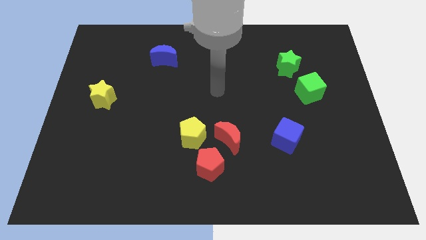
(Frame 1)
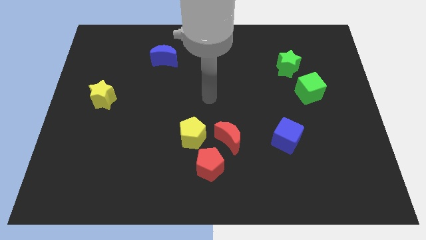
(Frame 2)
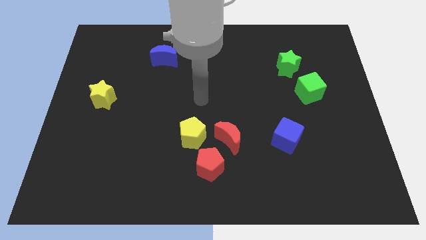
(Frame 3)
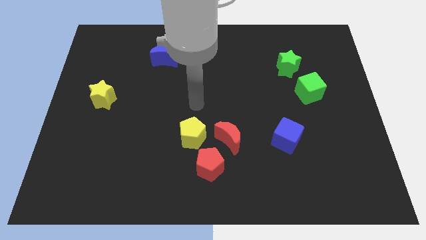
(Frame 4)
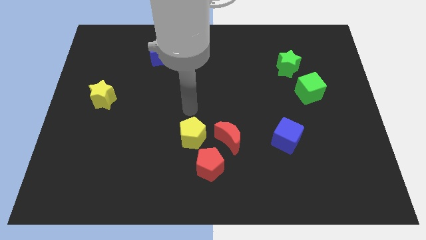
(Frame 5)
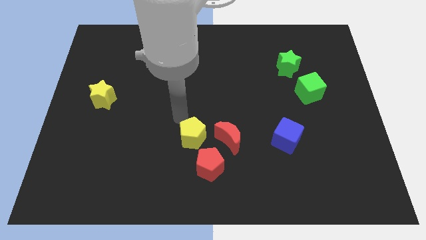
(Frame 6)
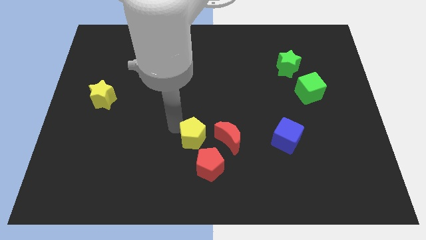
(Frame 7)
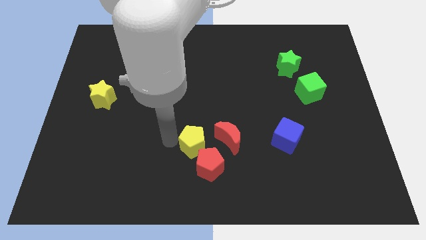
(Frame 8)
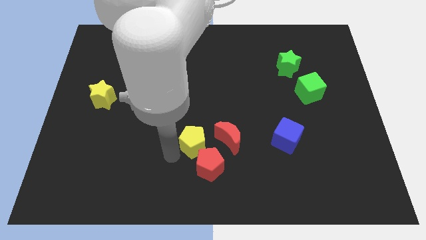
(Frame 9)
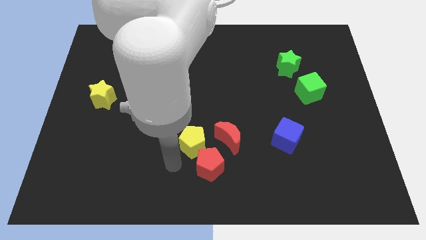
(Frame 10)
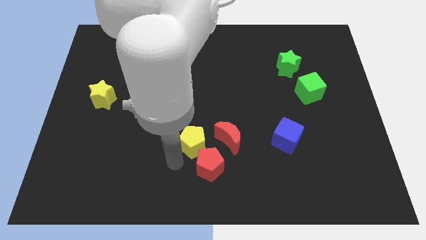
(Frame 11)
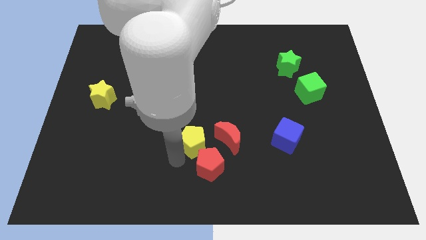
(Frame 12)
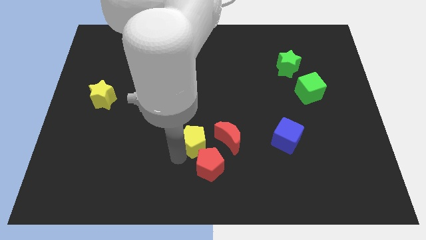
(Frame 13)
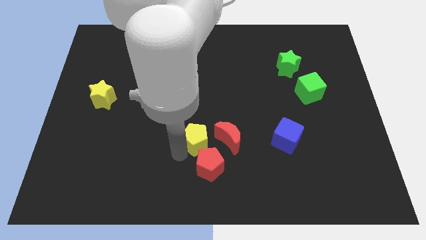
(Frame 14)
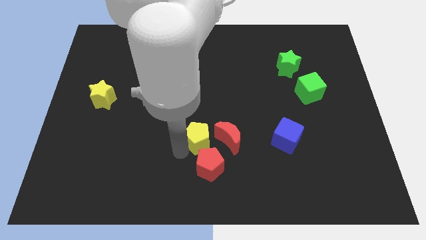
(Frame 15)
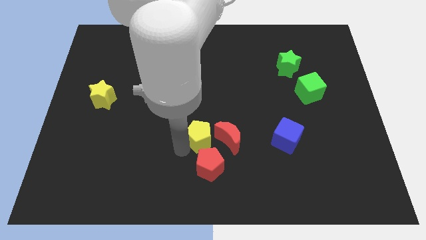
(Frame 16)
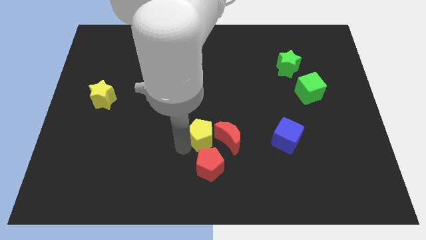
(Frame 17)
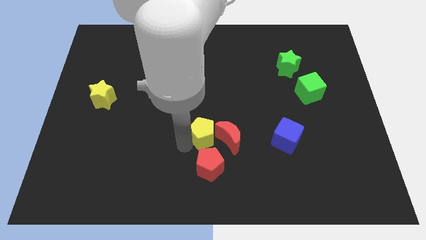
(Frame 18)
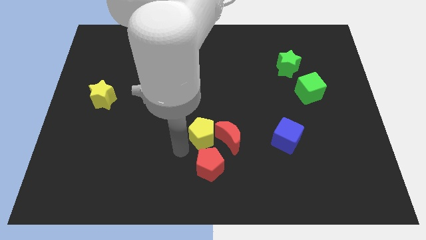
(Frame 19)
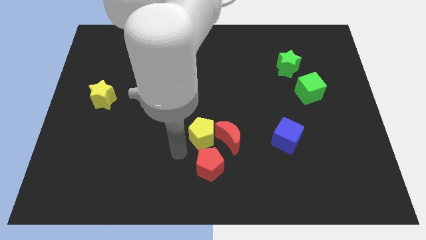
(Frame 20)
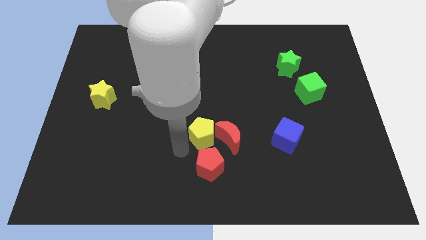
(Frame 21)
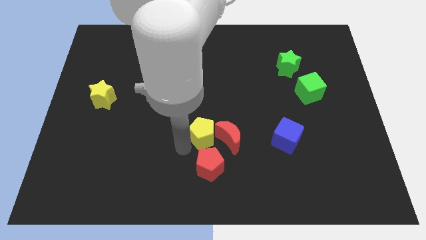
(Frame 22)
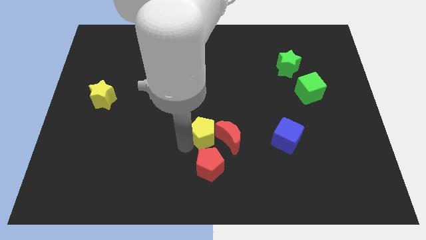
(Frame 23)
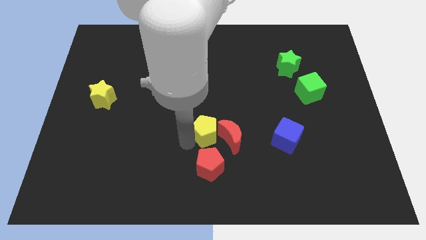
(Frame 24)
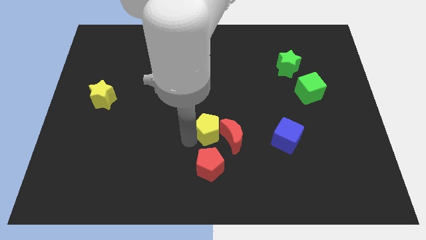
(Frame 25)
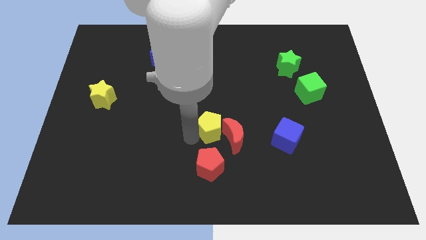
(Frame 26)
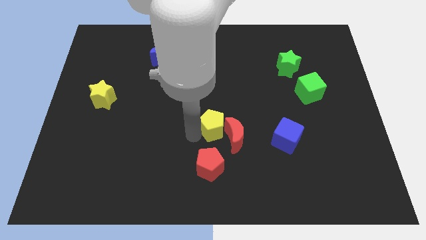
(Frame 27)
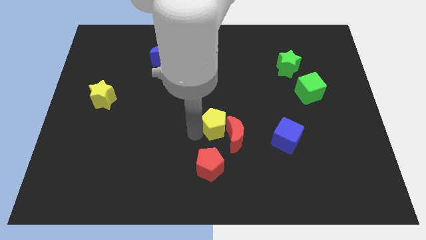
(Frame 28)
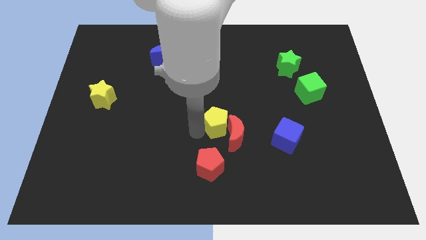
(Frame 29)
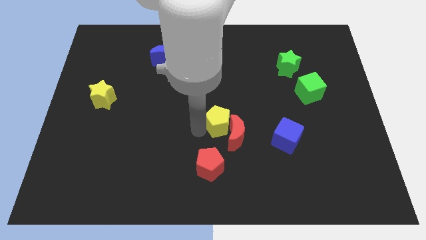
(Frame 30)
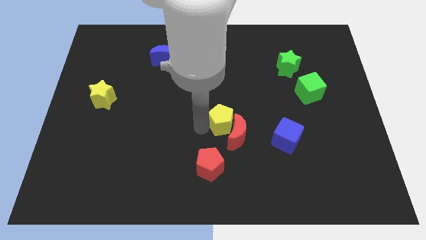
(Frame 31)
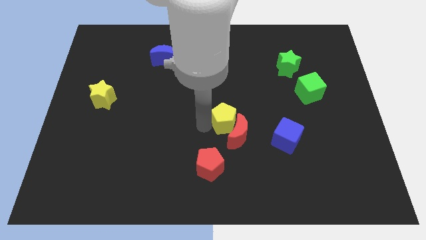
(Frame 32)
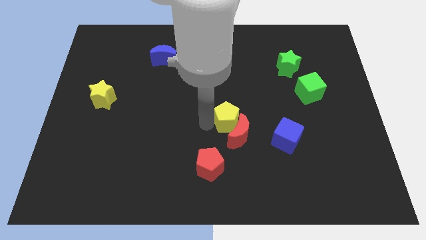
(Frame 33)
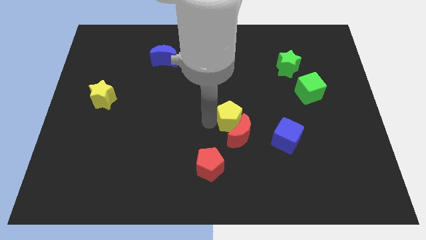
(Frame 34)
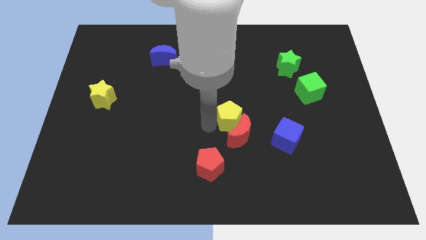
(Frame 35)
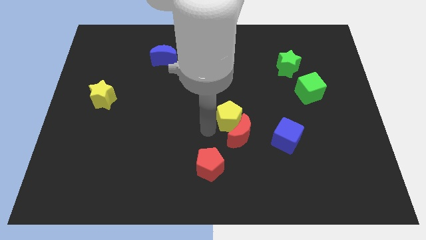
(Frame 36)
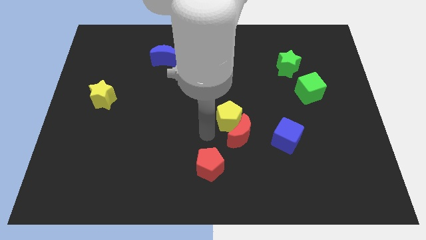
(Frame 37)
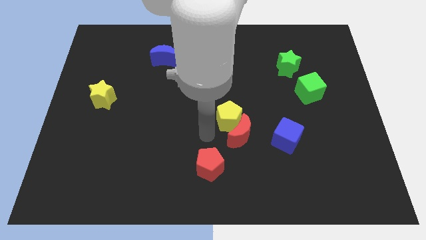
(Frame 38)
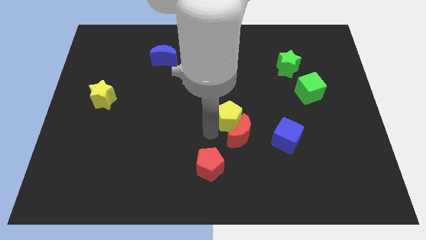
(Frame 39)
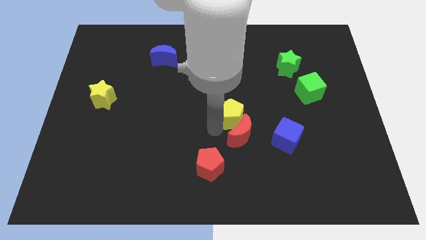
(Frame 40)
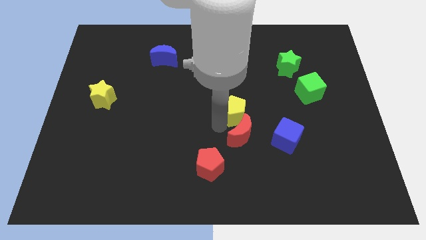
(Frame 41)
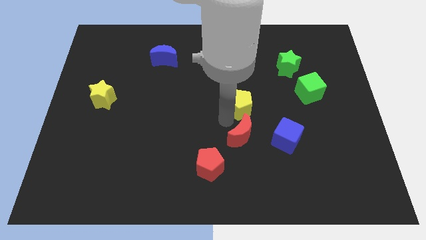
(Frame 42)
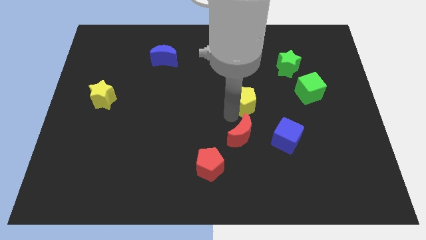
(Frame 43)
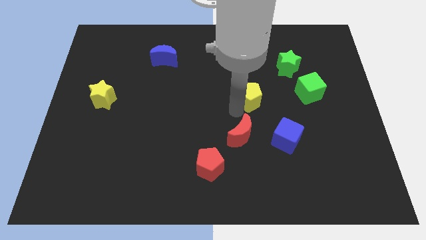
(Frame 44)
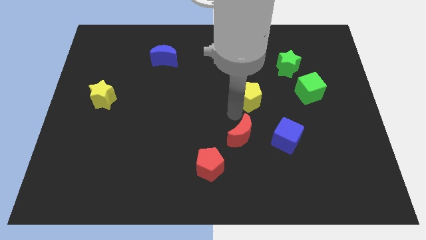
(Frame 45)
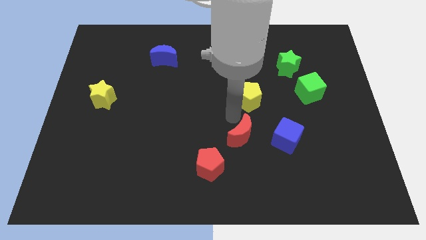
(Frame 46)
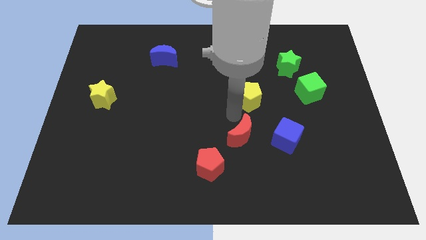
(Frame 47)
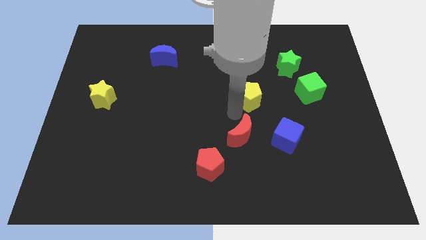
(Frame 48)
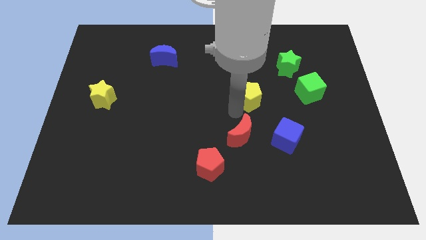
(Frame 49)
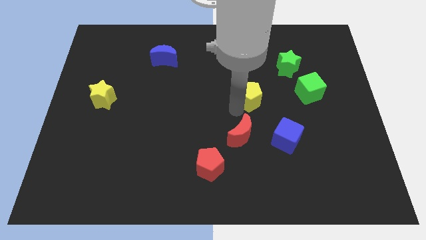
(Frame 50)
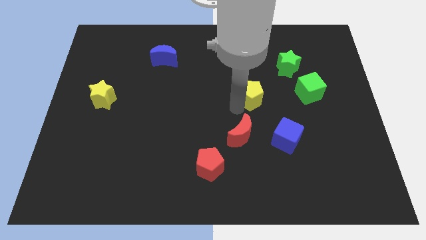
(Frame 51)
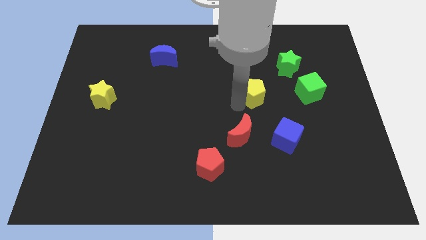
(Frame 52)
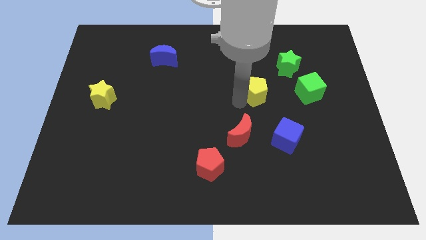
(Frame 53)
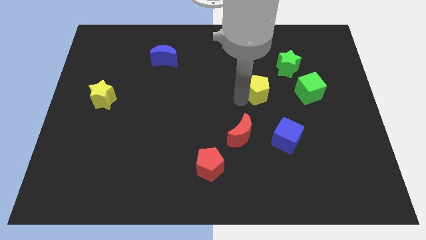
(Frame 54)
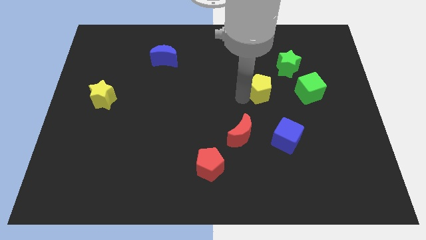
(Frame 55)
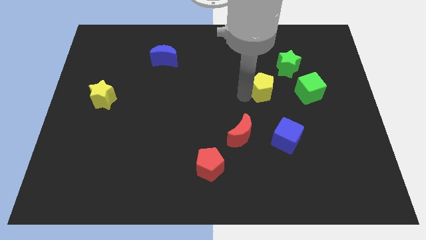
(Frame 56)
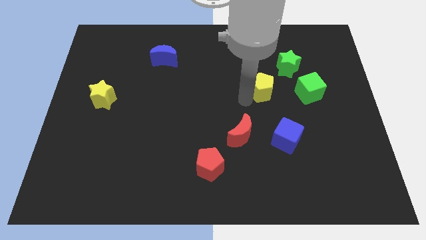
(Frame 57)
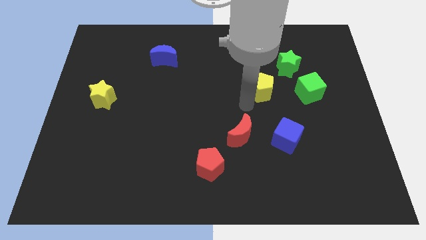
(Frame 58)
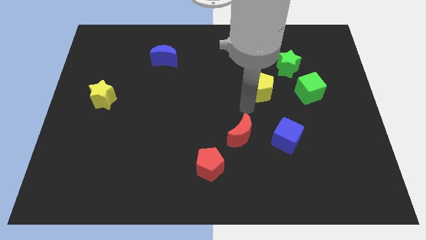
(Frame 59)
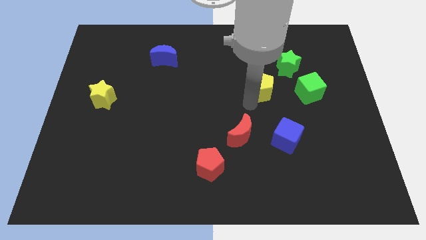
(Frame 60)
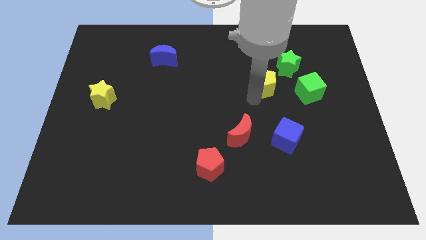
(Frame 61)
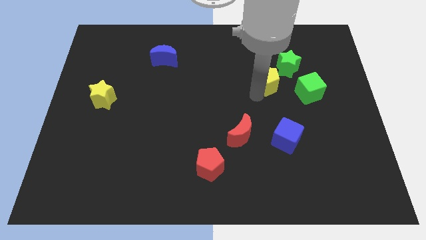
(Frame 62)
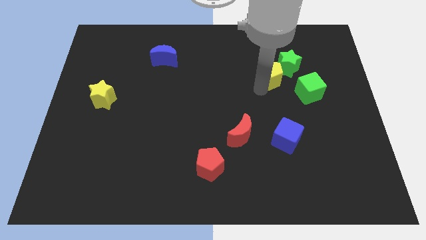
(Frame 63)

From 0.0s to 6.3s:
slide the yellow pentagon to the green star

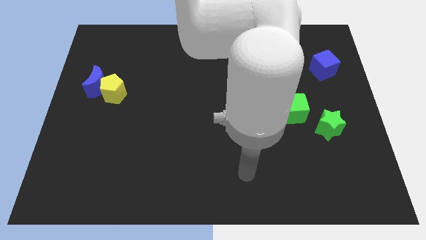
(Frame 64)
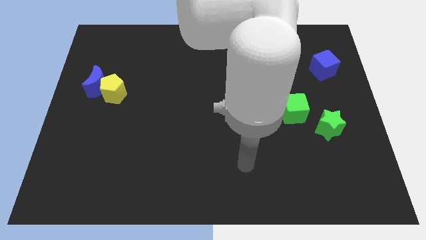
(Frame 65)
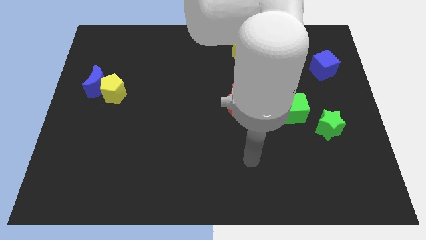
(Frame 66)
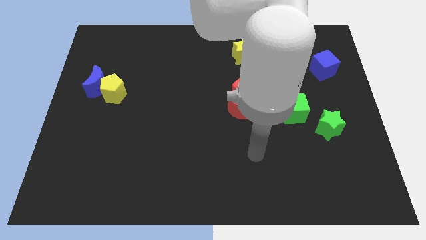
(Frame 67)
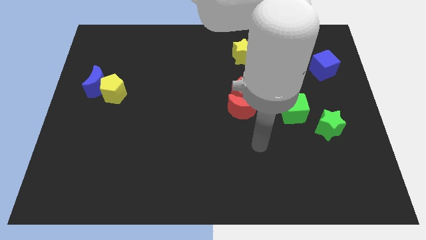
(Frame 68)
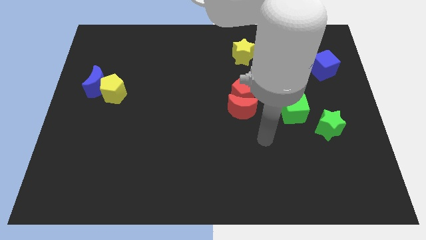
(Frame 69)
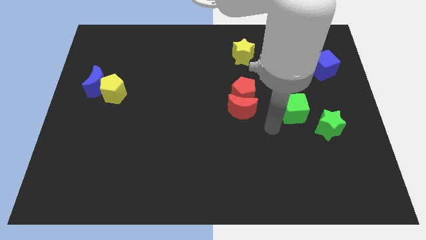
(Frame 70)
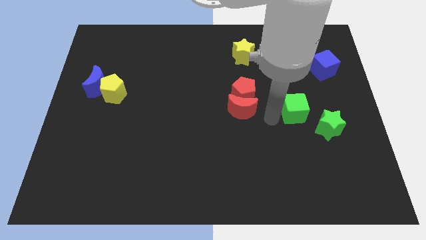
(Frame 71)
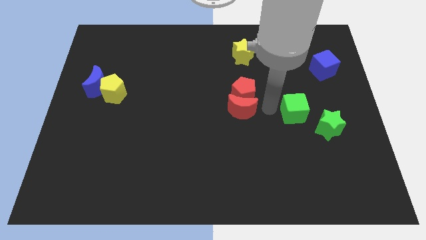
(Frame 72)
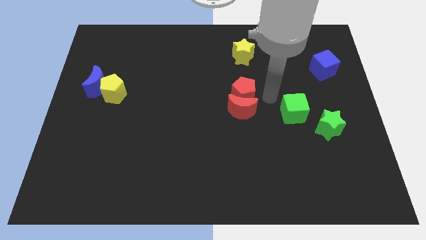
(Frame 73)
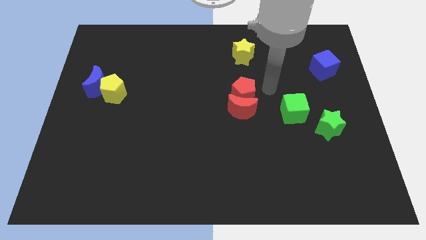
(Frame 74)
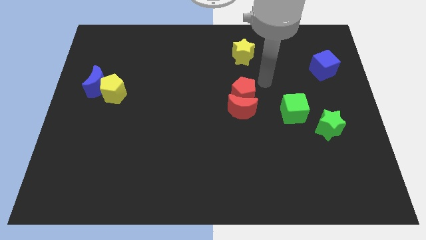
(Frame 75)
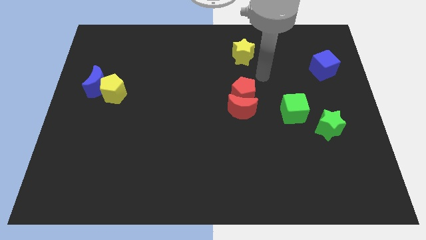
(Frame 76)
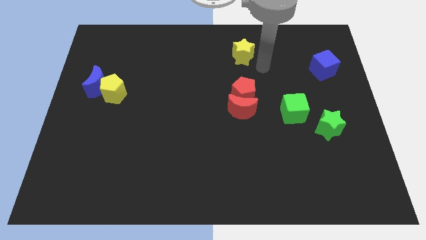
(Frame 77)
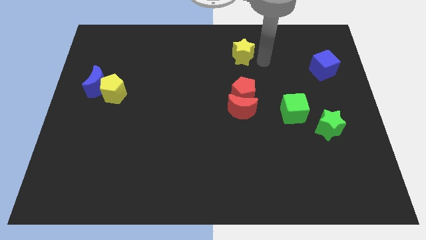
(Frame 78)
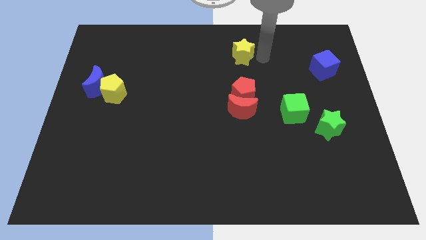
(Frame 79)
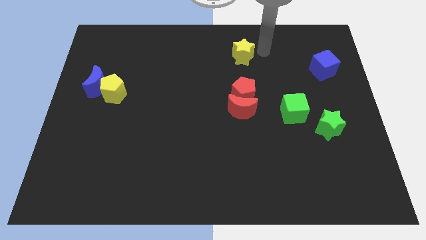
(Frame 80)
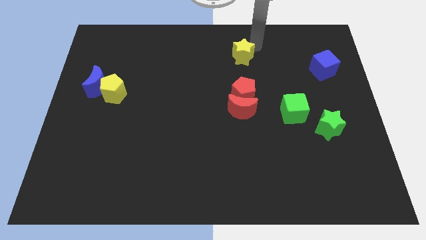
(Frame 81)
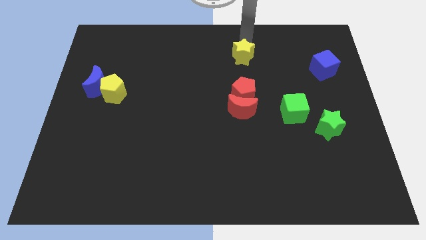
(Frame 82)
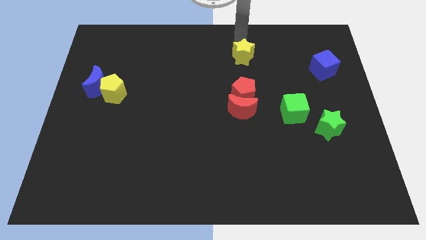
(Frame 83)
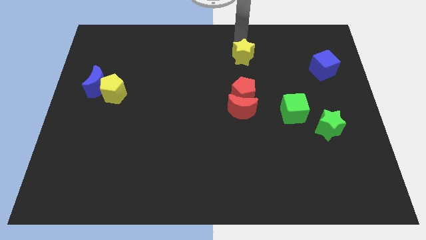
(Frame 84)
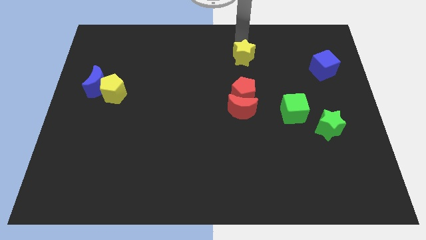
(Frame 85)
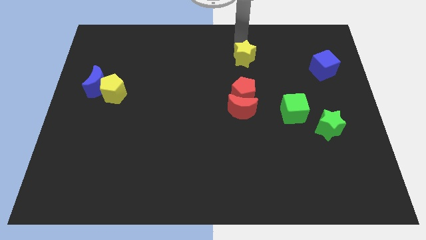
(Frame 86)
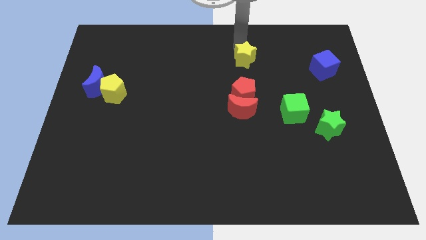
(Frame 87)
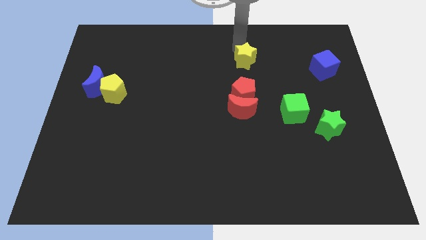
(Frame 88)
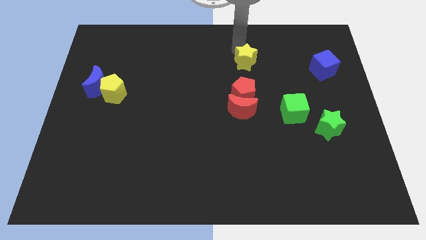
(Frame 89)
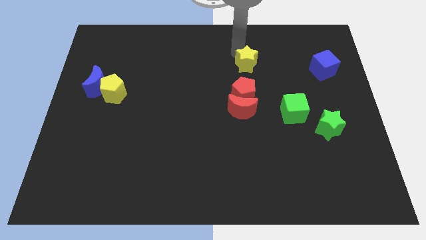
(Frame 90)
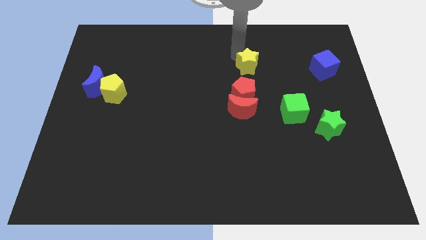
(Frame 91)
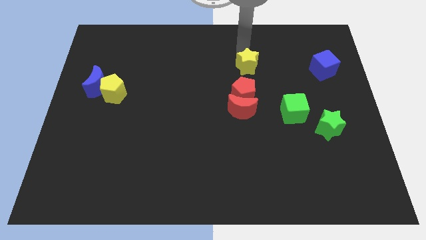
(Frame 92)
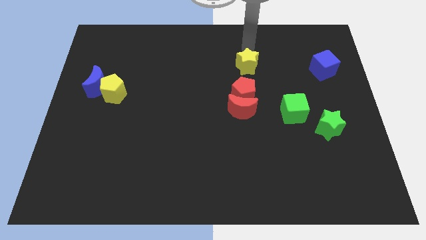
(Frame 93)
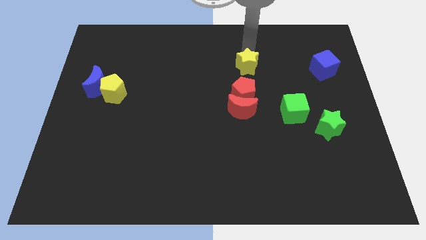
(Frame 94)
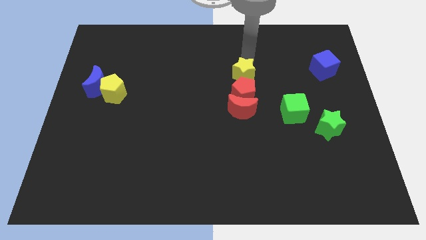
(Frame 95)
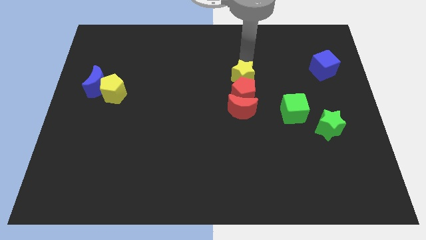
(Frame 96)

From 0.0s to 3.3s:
put the yellow star next to the red pentagon
